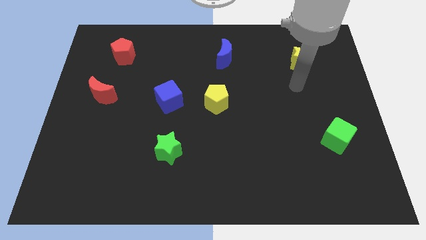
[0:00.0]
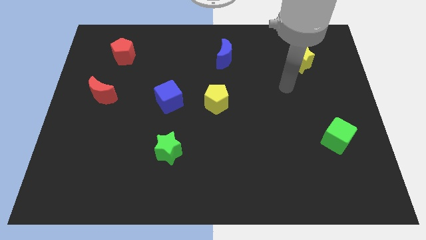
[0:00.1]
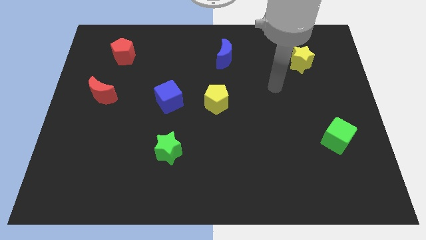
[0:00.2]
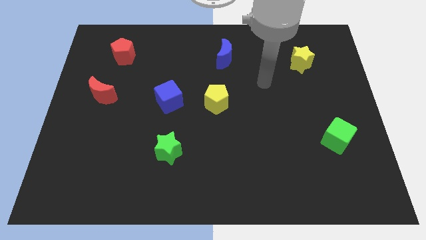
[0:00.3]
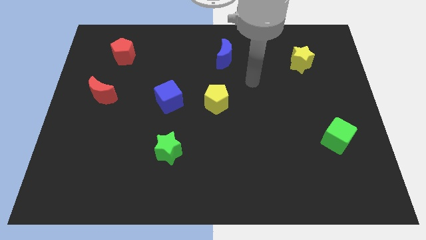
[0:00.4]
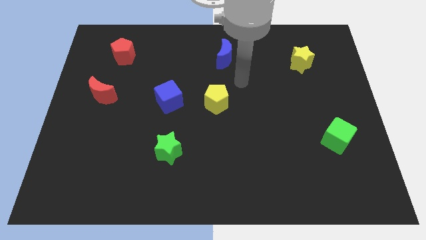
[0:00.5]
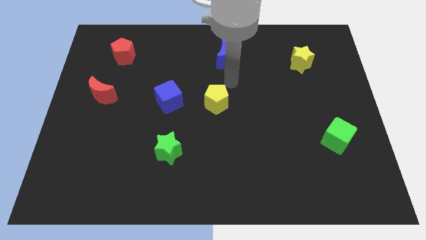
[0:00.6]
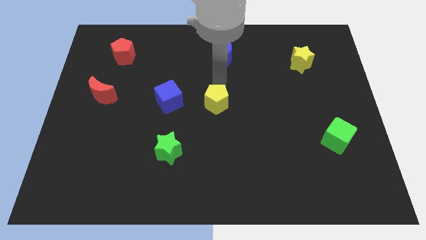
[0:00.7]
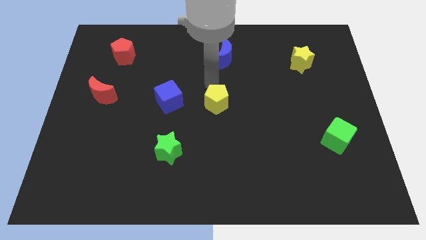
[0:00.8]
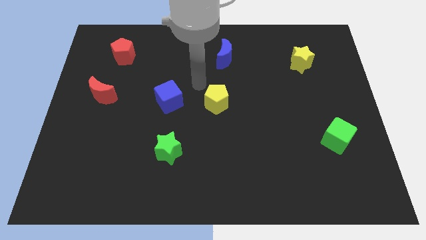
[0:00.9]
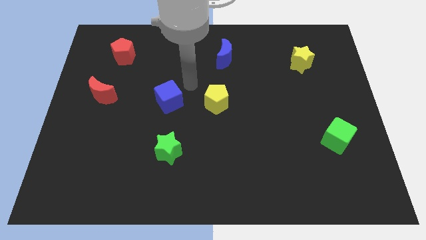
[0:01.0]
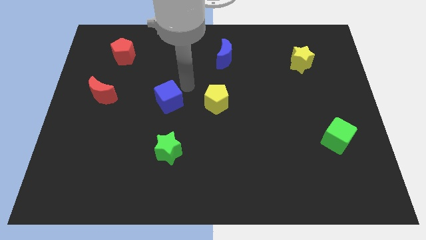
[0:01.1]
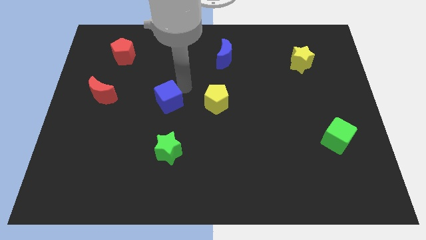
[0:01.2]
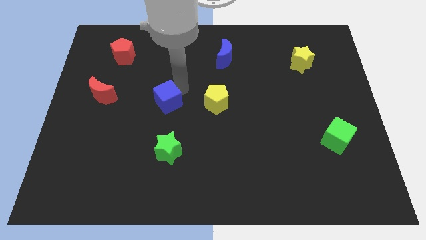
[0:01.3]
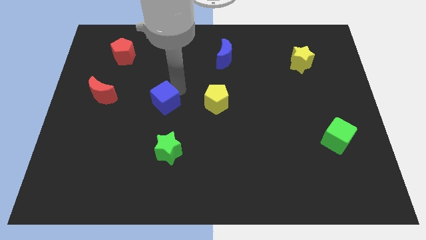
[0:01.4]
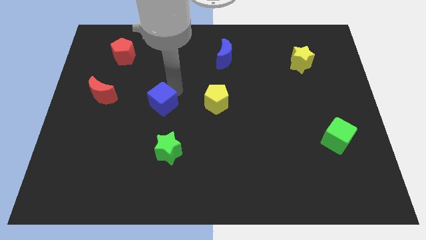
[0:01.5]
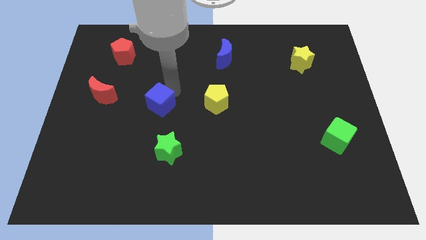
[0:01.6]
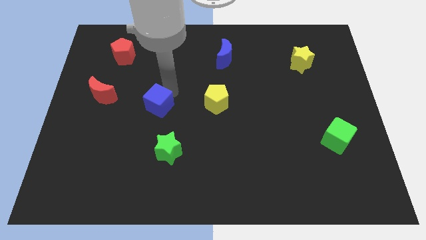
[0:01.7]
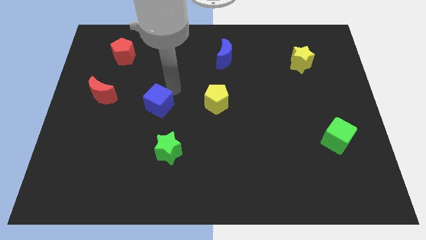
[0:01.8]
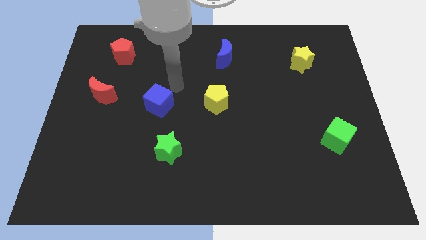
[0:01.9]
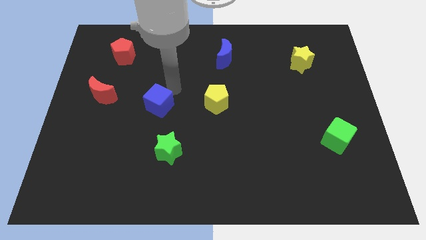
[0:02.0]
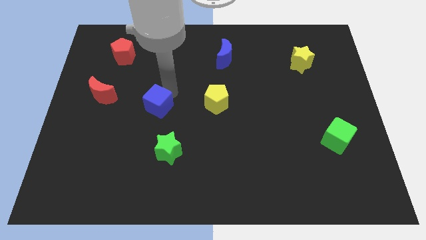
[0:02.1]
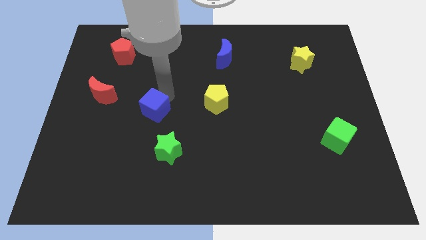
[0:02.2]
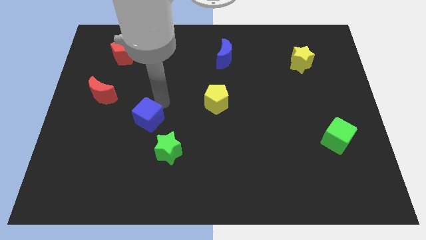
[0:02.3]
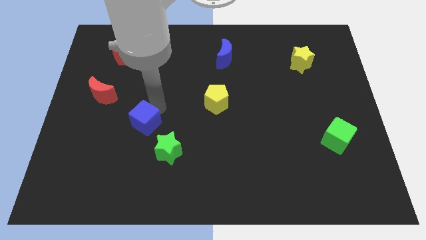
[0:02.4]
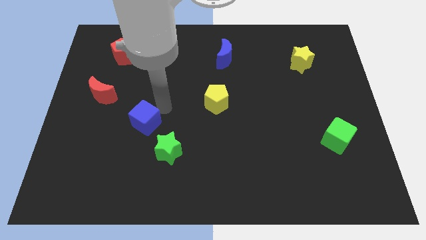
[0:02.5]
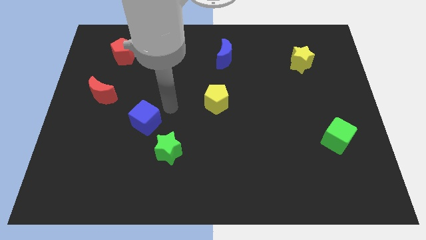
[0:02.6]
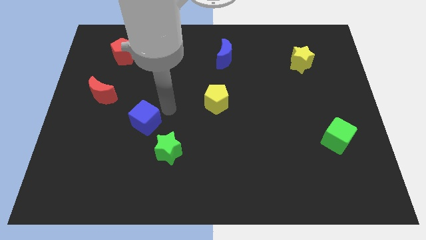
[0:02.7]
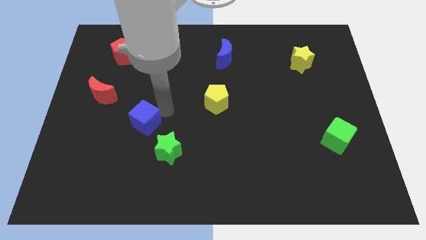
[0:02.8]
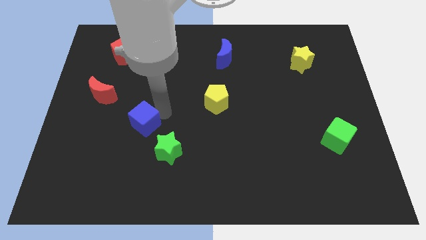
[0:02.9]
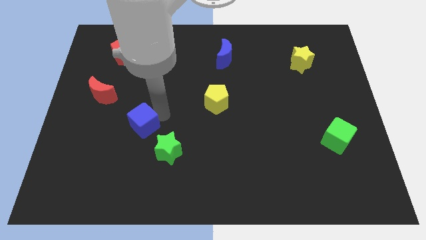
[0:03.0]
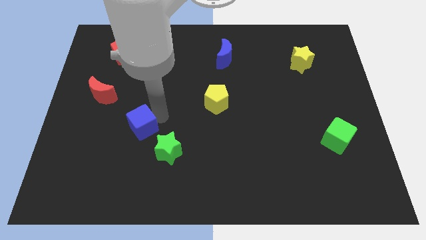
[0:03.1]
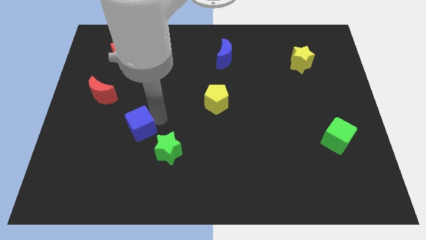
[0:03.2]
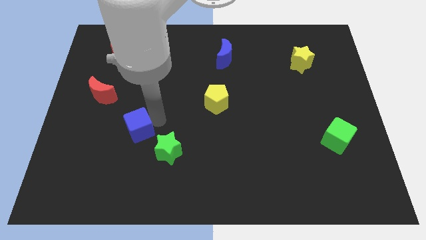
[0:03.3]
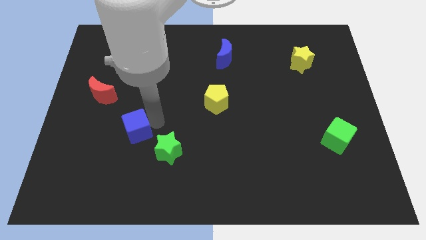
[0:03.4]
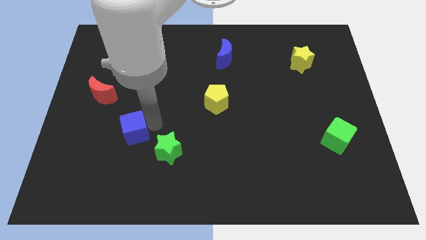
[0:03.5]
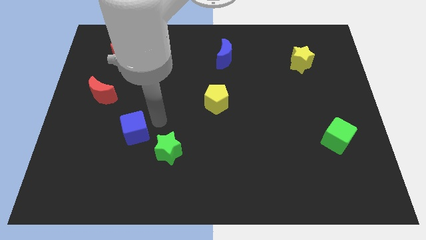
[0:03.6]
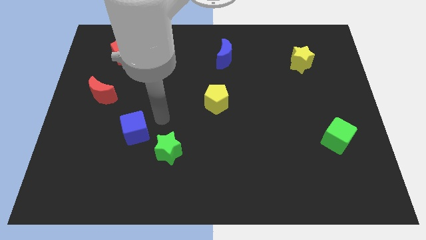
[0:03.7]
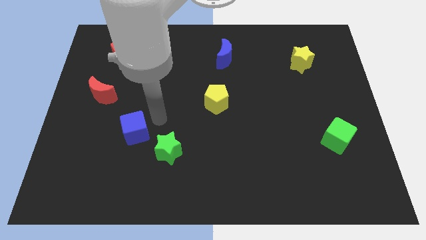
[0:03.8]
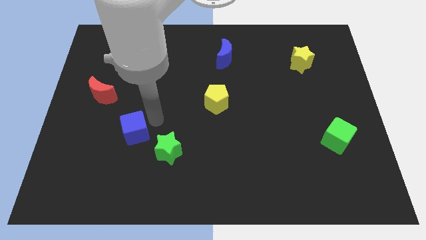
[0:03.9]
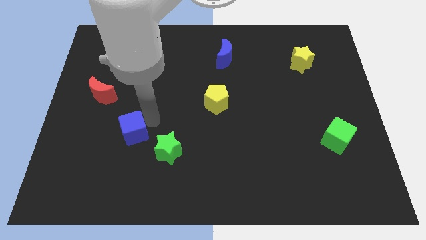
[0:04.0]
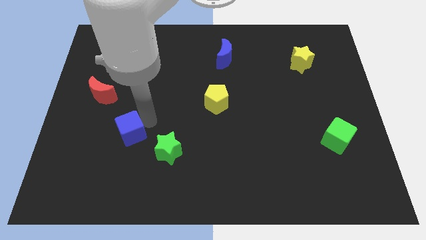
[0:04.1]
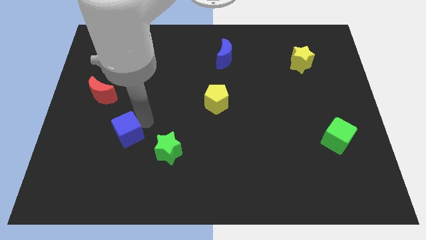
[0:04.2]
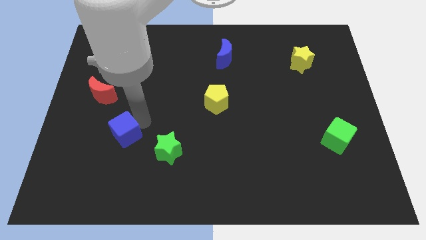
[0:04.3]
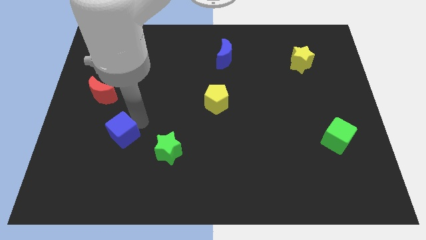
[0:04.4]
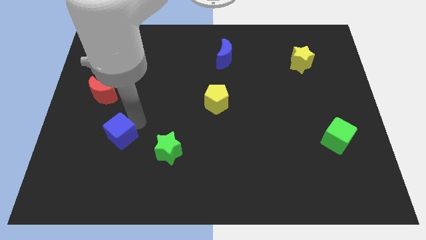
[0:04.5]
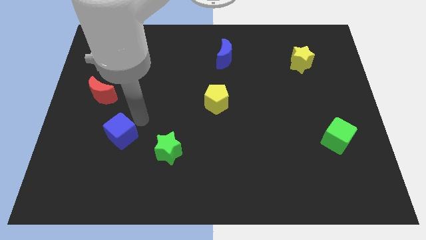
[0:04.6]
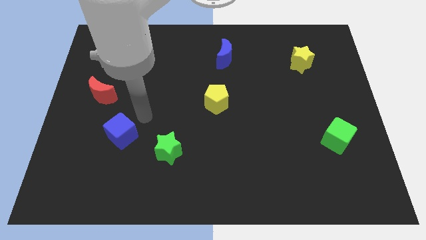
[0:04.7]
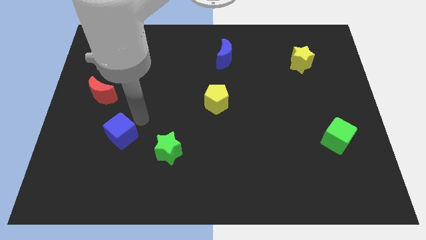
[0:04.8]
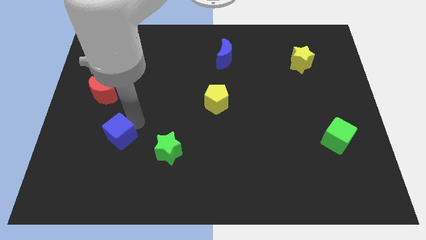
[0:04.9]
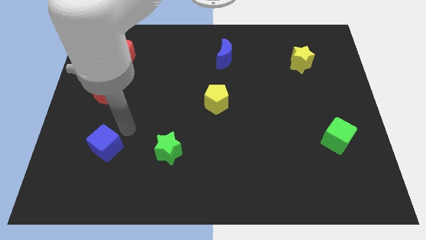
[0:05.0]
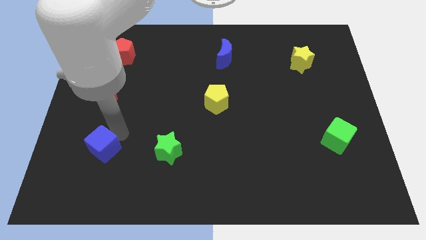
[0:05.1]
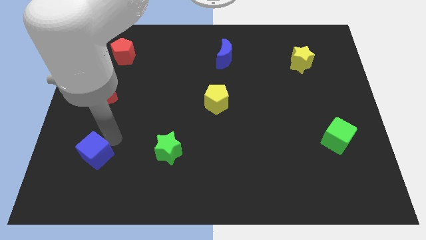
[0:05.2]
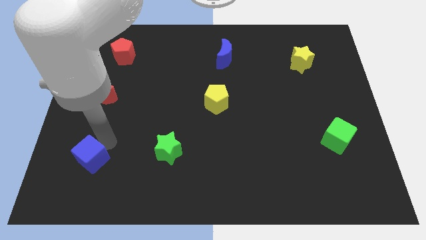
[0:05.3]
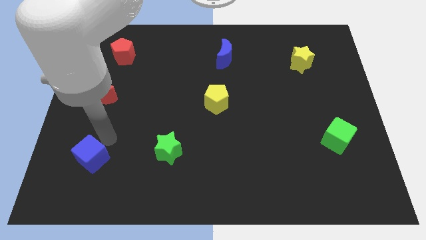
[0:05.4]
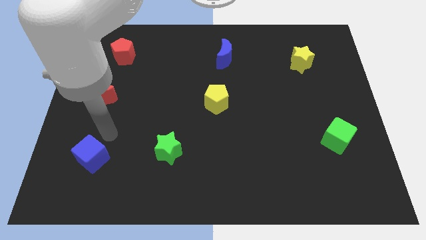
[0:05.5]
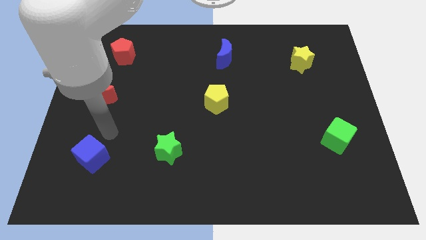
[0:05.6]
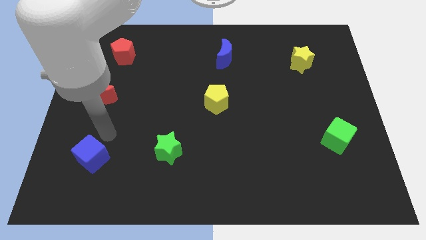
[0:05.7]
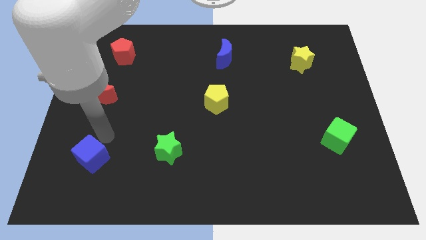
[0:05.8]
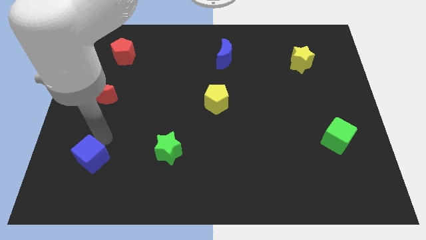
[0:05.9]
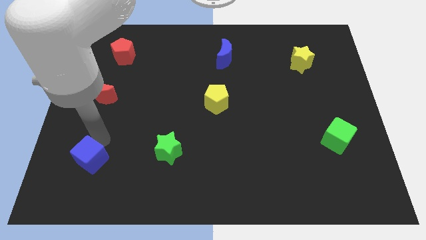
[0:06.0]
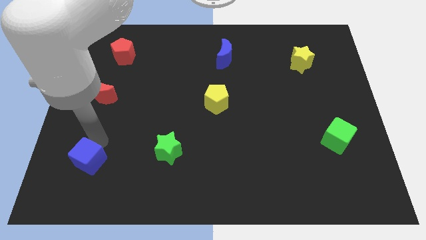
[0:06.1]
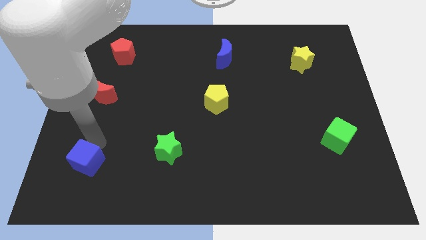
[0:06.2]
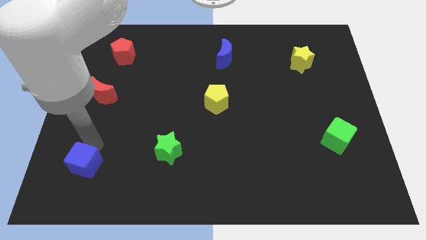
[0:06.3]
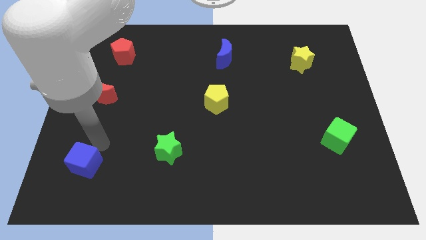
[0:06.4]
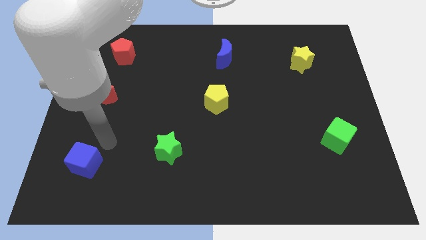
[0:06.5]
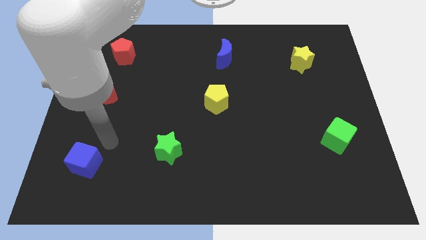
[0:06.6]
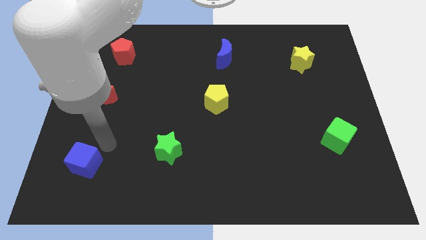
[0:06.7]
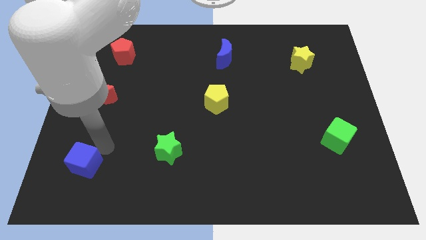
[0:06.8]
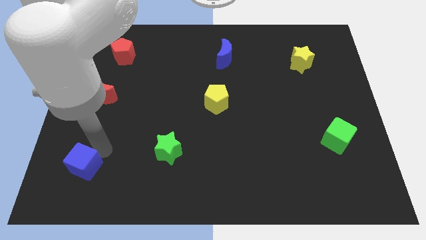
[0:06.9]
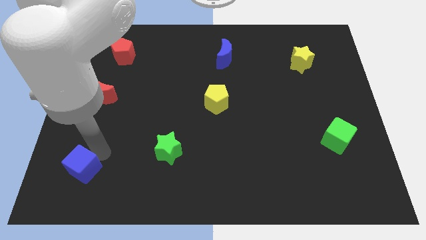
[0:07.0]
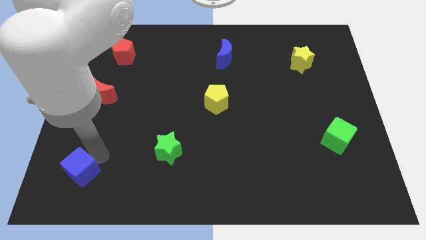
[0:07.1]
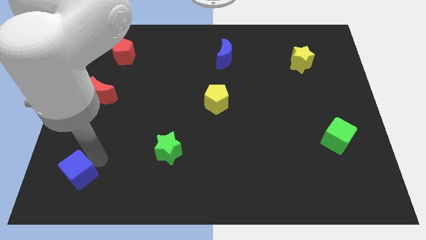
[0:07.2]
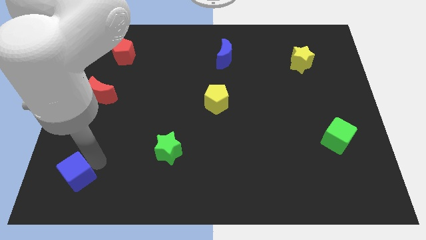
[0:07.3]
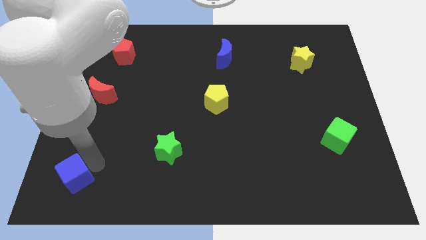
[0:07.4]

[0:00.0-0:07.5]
push the blue cube to the bottom left corner
